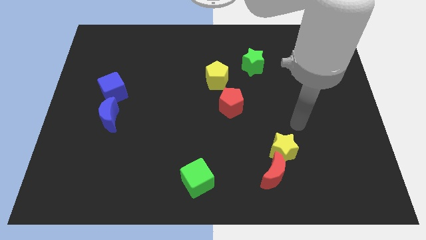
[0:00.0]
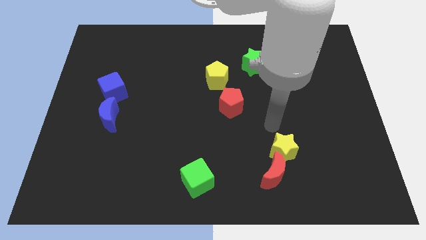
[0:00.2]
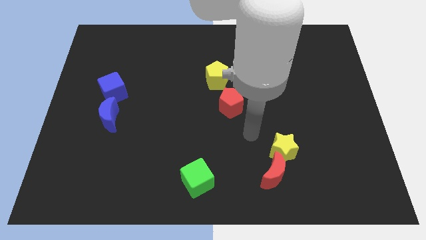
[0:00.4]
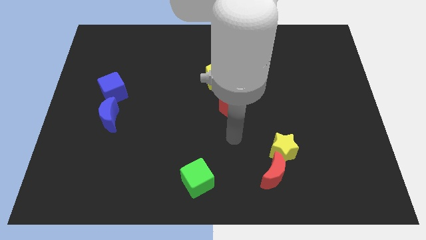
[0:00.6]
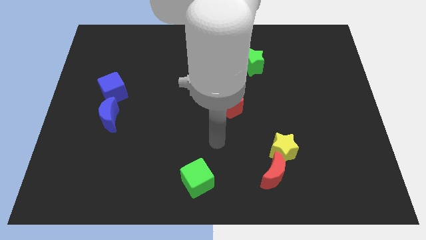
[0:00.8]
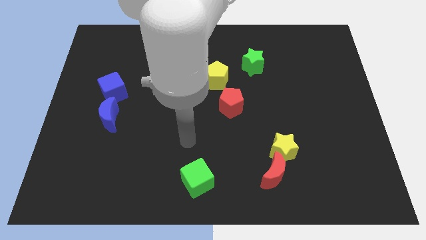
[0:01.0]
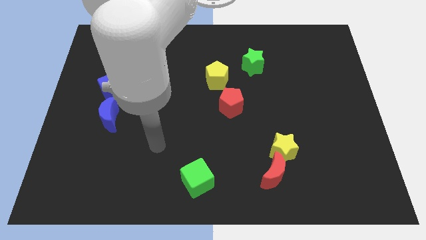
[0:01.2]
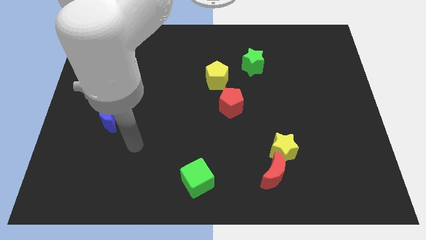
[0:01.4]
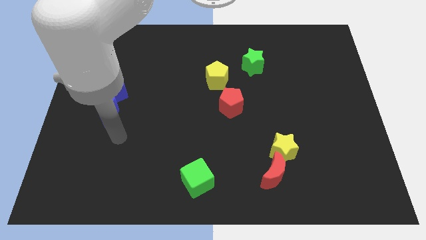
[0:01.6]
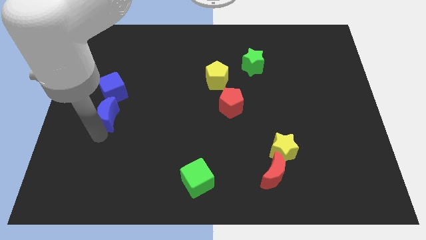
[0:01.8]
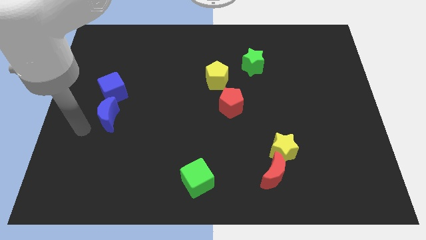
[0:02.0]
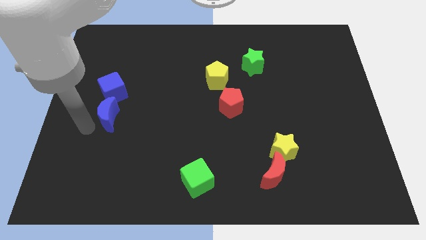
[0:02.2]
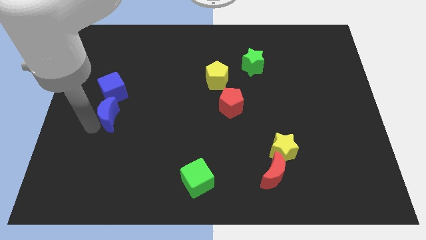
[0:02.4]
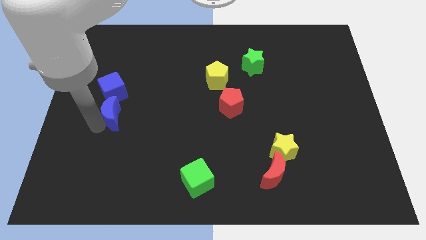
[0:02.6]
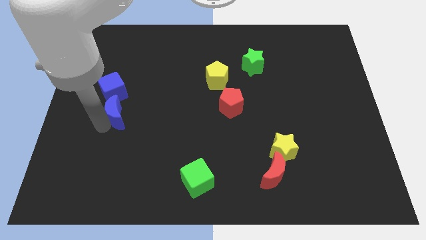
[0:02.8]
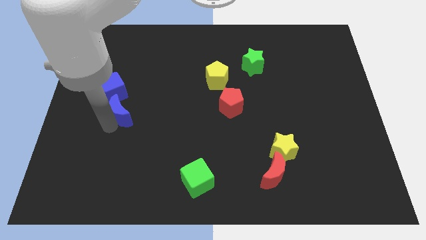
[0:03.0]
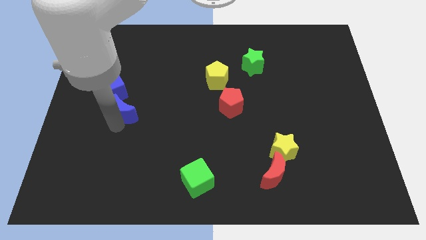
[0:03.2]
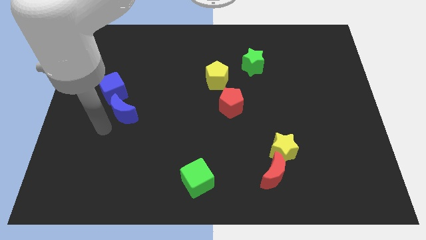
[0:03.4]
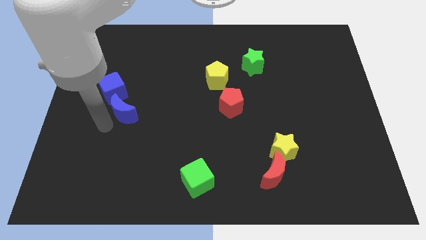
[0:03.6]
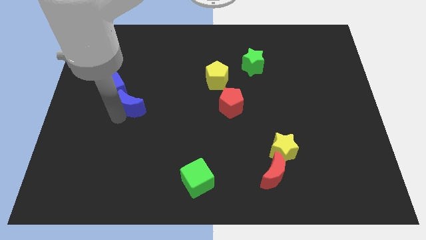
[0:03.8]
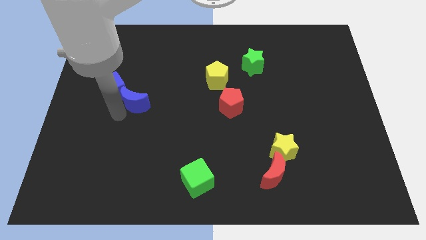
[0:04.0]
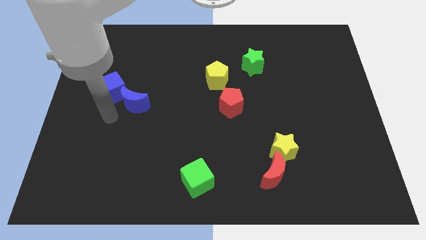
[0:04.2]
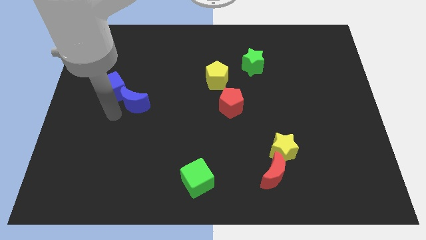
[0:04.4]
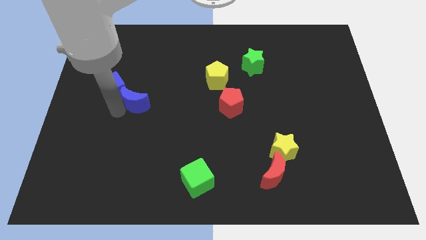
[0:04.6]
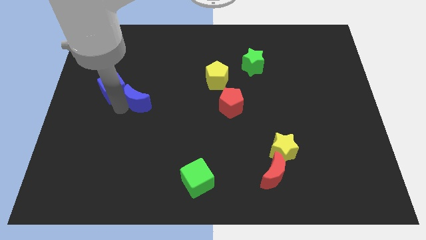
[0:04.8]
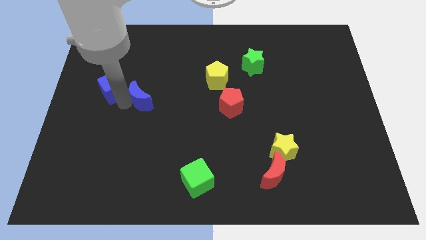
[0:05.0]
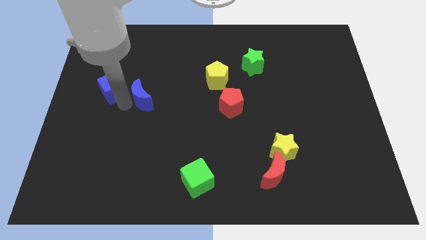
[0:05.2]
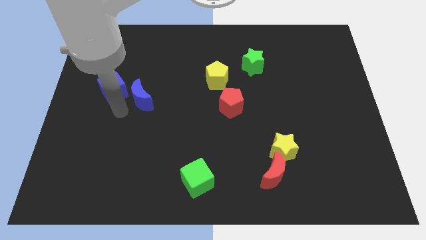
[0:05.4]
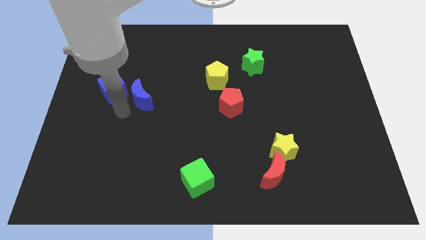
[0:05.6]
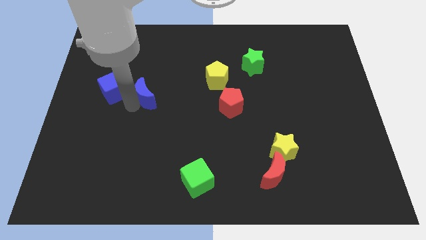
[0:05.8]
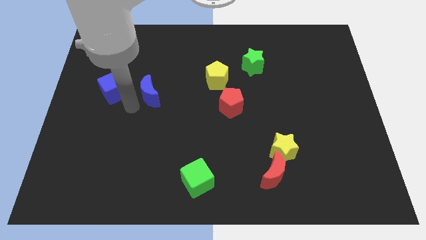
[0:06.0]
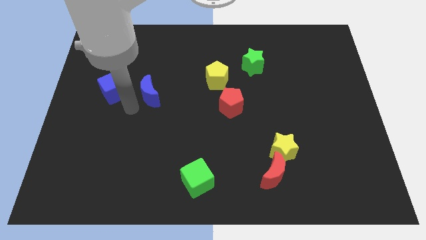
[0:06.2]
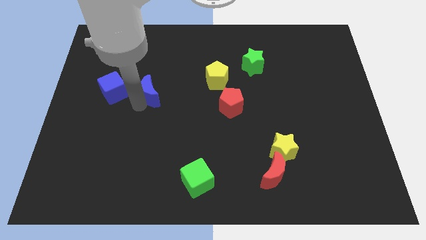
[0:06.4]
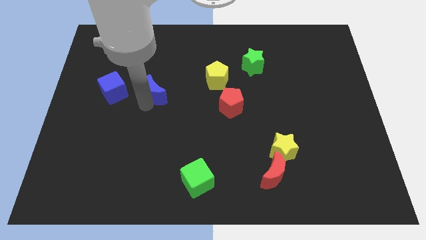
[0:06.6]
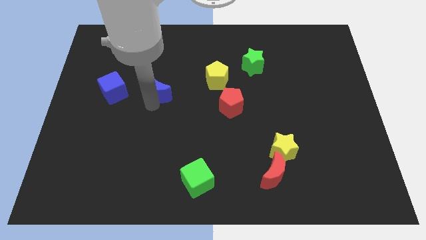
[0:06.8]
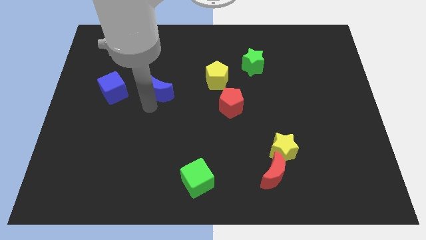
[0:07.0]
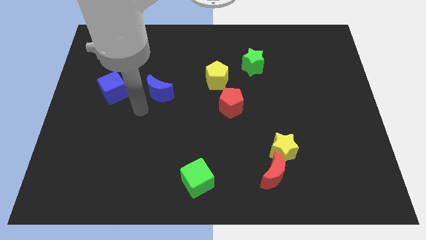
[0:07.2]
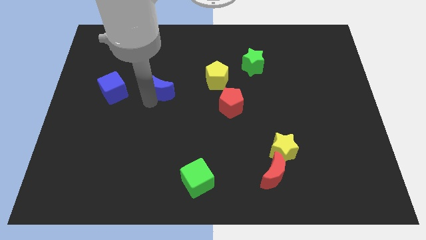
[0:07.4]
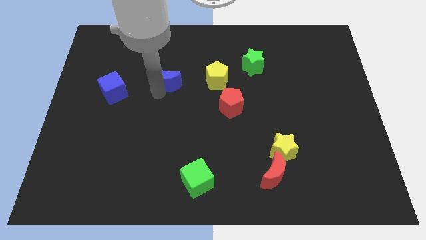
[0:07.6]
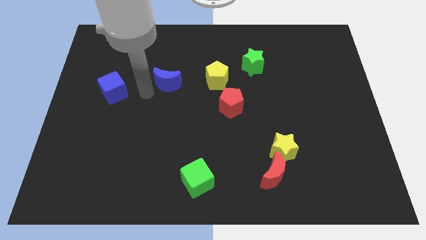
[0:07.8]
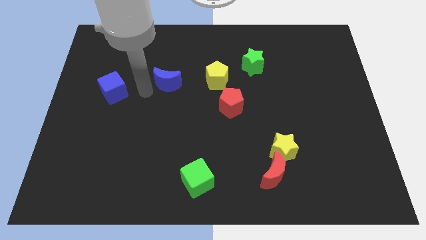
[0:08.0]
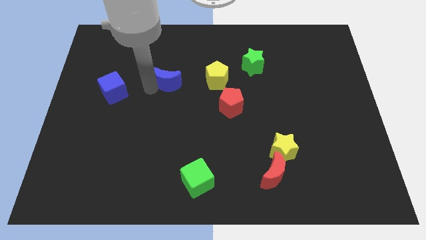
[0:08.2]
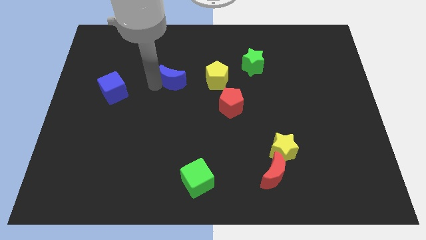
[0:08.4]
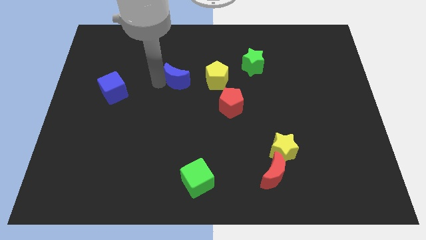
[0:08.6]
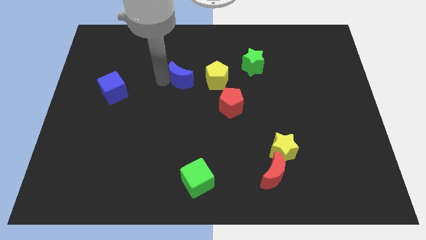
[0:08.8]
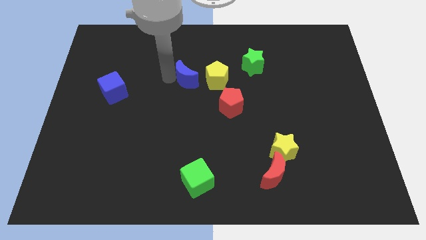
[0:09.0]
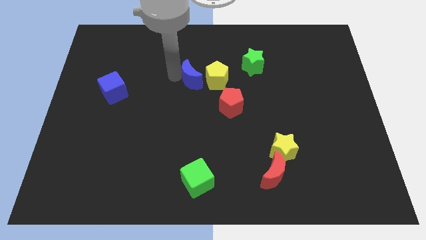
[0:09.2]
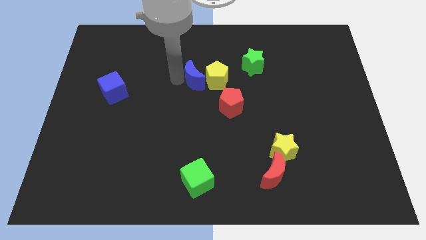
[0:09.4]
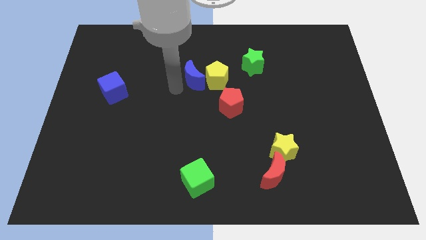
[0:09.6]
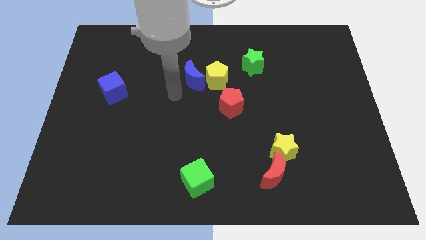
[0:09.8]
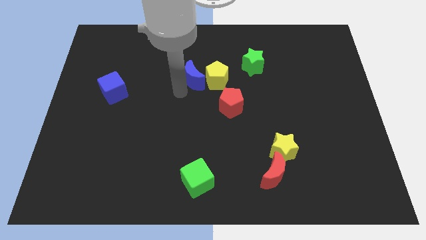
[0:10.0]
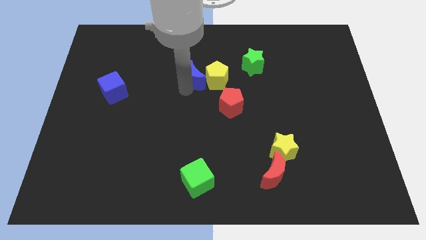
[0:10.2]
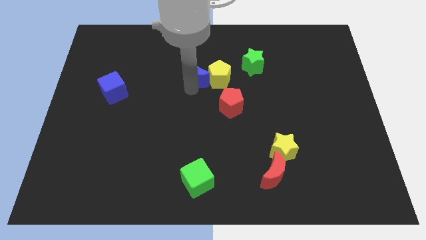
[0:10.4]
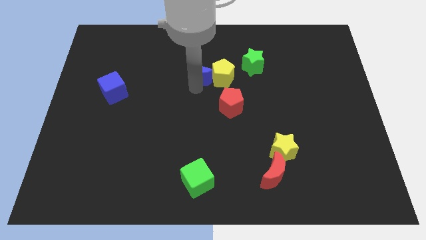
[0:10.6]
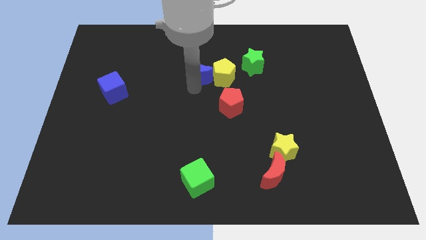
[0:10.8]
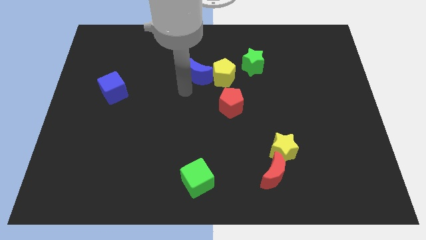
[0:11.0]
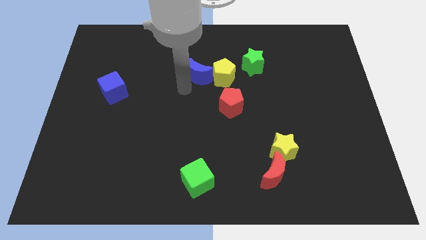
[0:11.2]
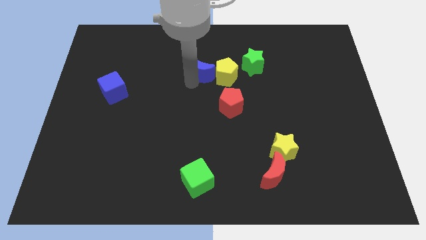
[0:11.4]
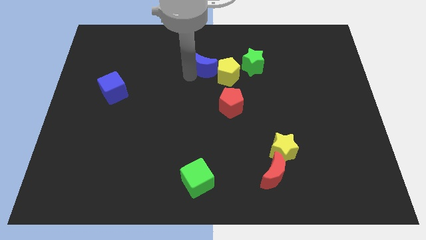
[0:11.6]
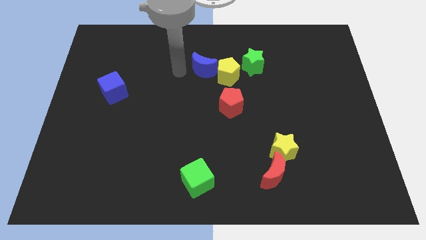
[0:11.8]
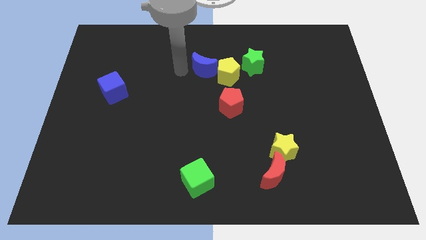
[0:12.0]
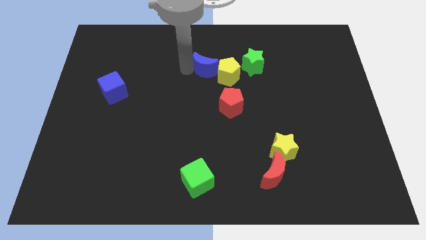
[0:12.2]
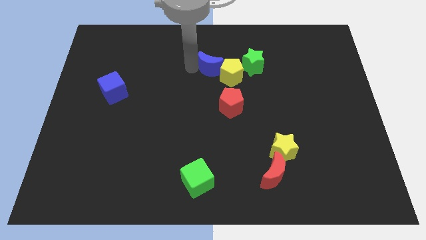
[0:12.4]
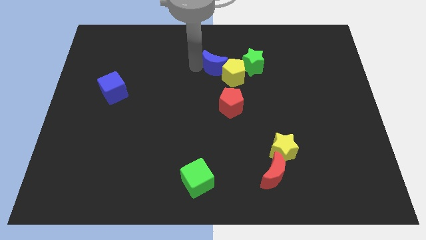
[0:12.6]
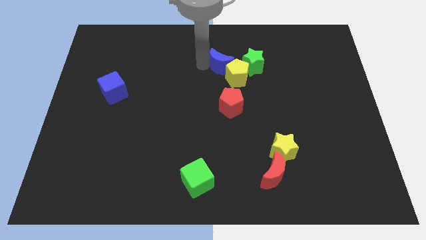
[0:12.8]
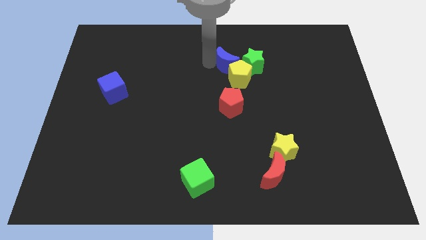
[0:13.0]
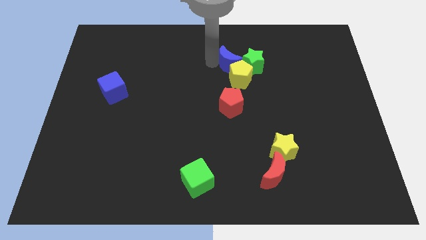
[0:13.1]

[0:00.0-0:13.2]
push the blue moon close to the green star

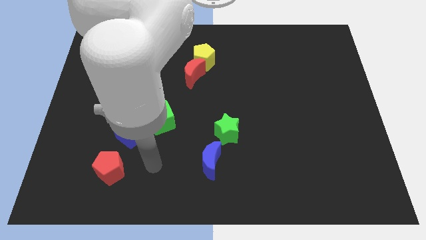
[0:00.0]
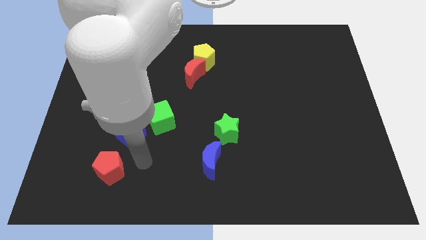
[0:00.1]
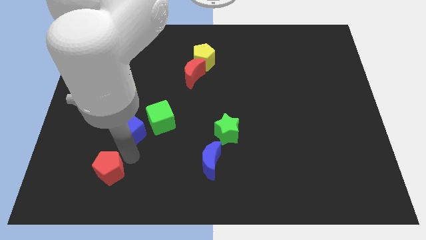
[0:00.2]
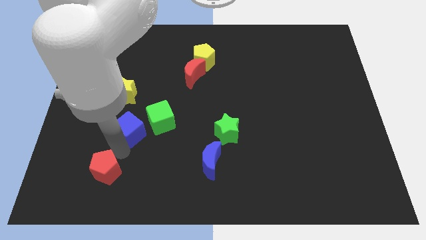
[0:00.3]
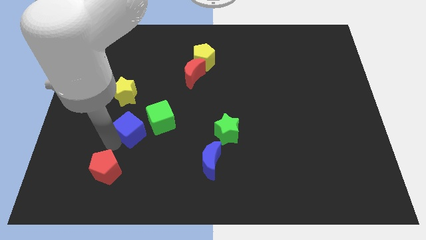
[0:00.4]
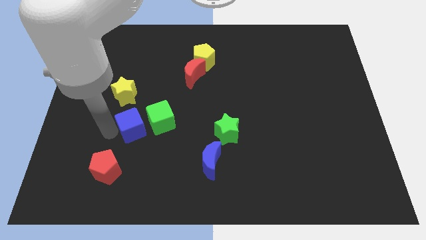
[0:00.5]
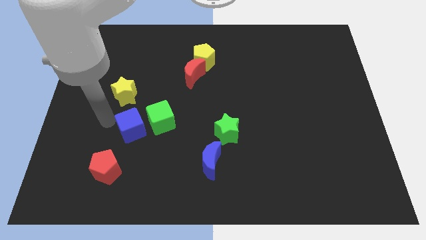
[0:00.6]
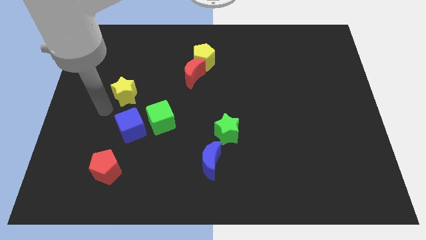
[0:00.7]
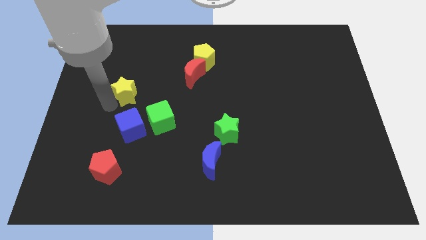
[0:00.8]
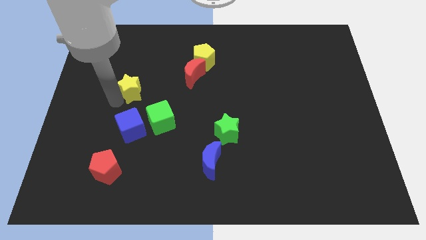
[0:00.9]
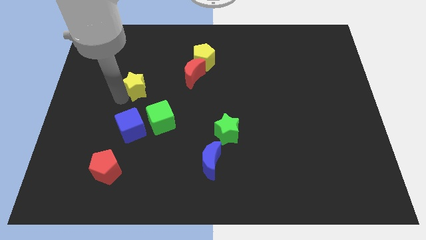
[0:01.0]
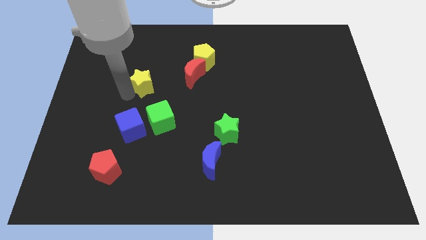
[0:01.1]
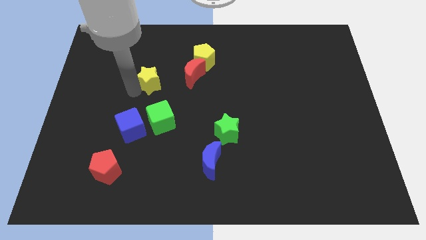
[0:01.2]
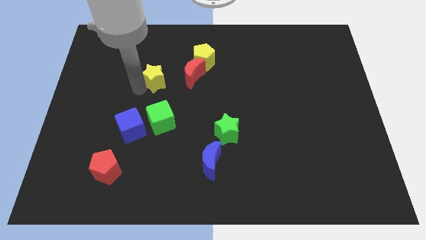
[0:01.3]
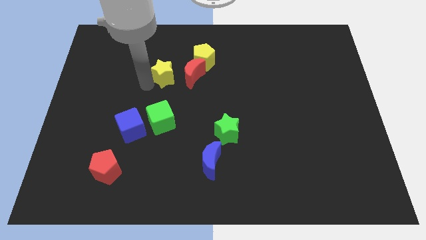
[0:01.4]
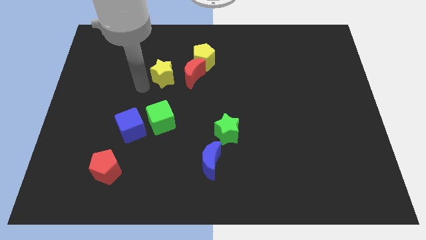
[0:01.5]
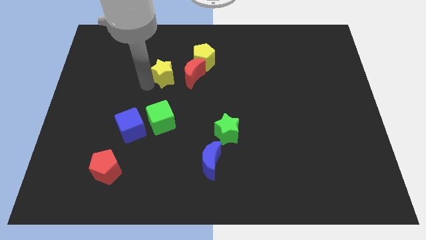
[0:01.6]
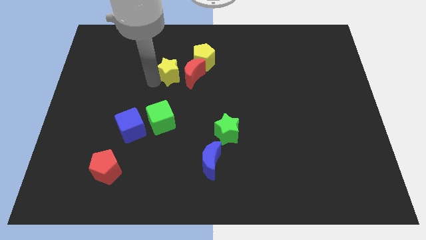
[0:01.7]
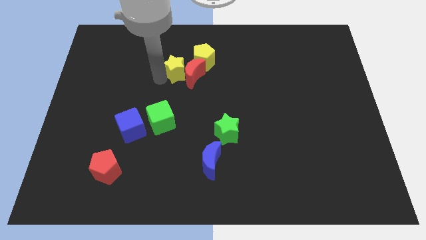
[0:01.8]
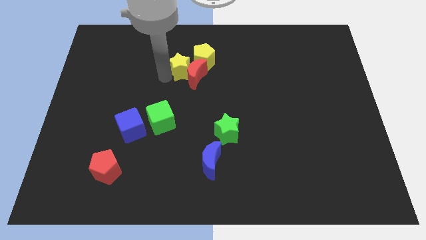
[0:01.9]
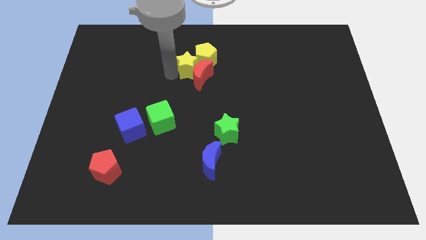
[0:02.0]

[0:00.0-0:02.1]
push the yellow star towards the yellow pentagon
